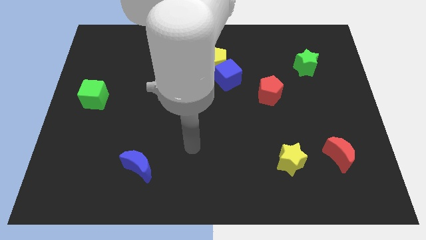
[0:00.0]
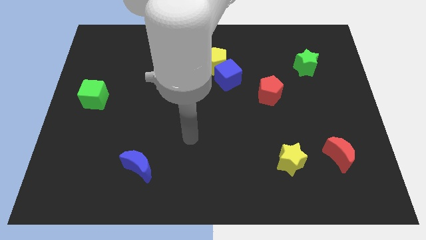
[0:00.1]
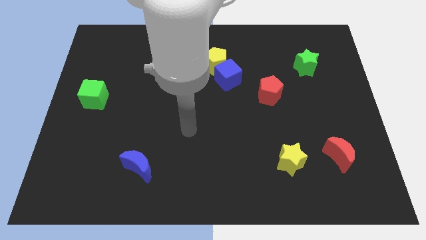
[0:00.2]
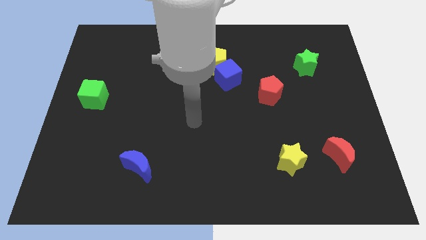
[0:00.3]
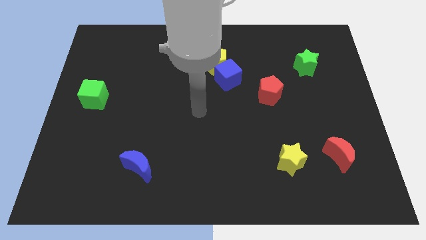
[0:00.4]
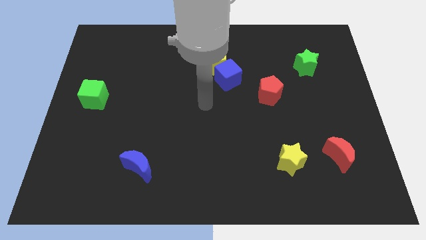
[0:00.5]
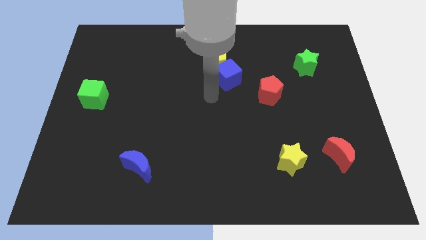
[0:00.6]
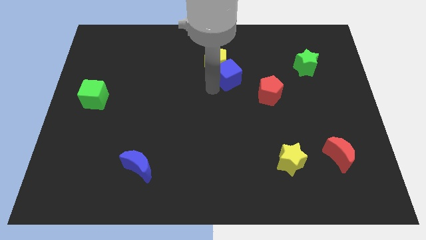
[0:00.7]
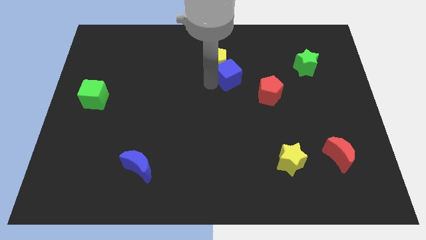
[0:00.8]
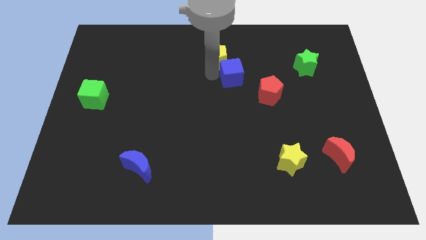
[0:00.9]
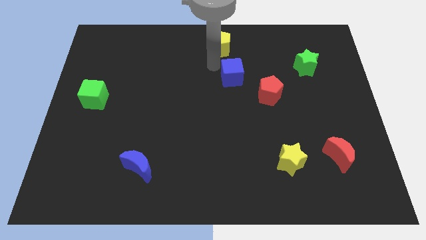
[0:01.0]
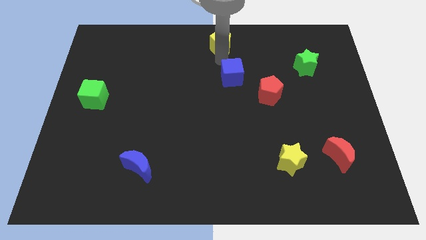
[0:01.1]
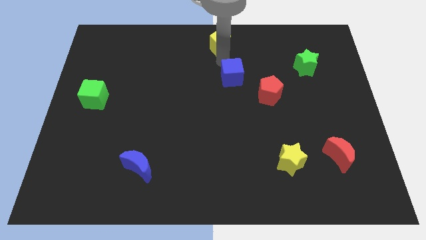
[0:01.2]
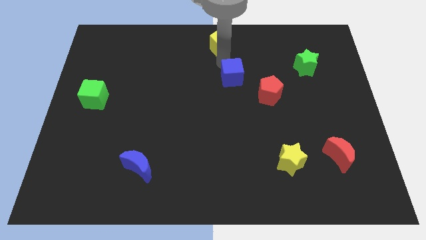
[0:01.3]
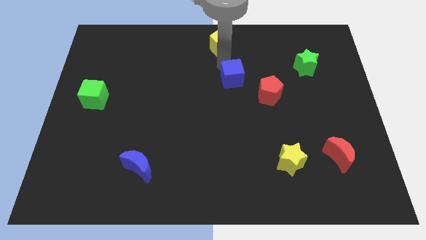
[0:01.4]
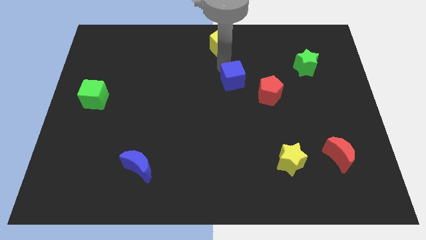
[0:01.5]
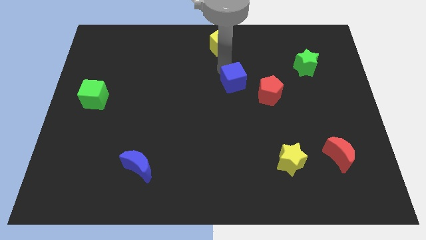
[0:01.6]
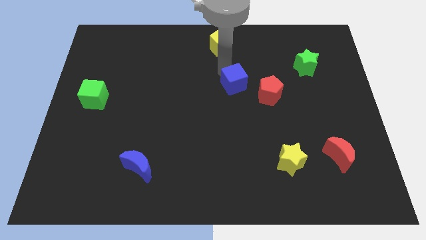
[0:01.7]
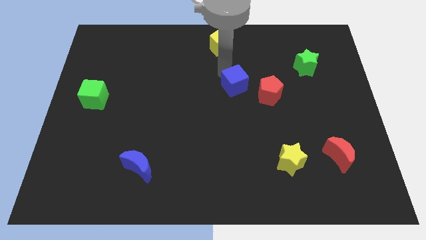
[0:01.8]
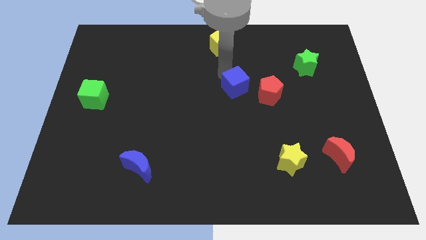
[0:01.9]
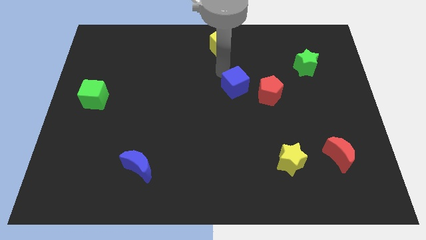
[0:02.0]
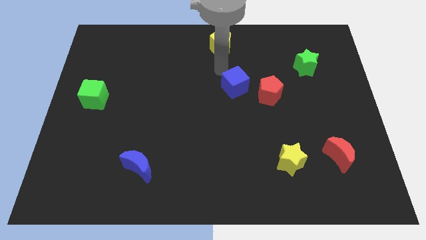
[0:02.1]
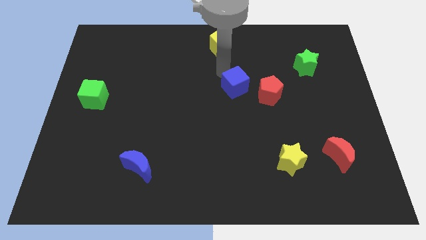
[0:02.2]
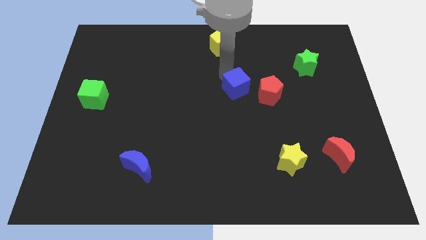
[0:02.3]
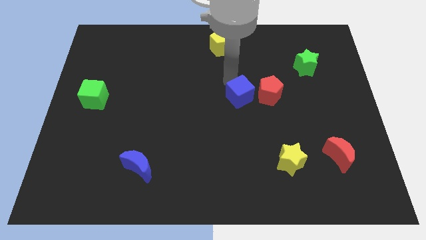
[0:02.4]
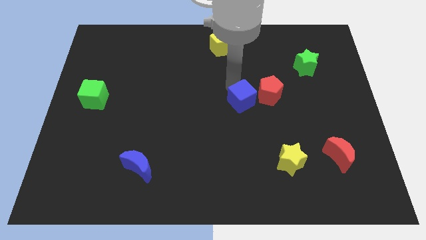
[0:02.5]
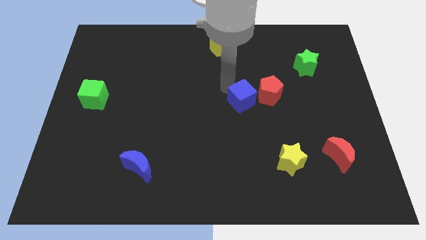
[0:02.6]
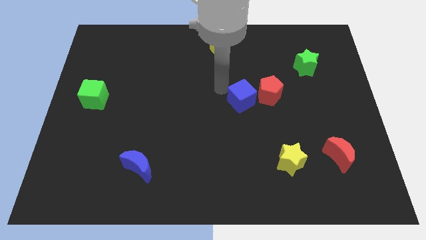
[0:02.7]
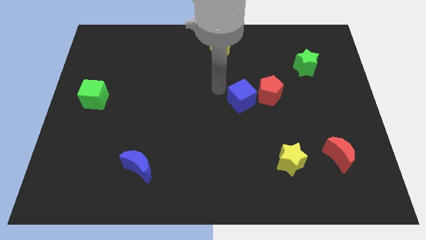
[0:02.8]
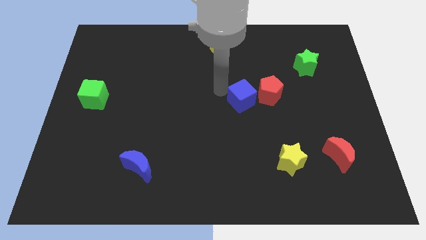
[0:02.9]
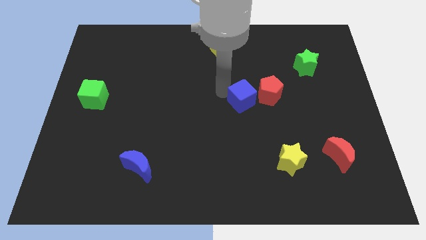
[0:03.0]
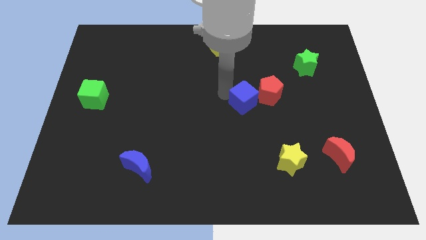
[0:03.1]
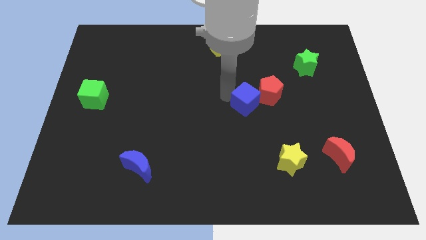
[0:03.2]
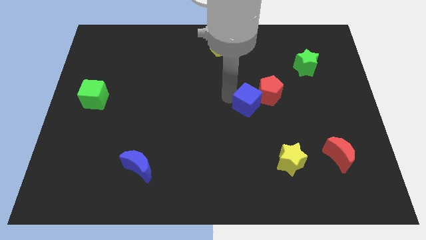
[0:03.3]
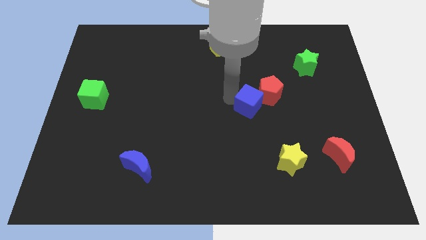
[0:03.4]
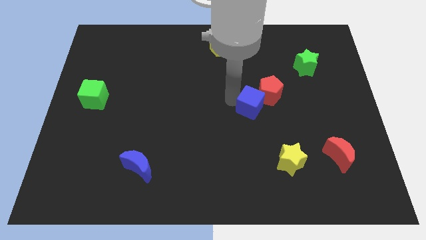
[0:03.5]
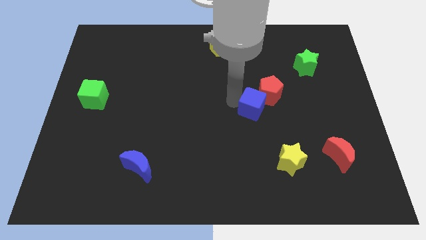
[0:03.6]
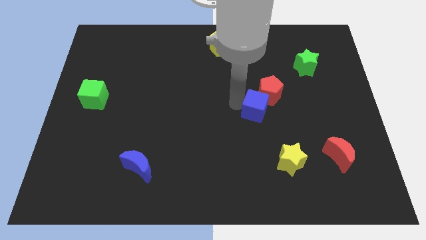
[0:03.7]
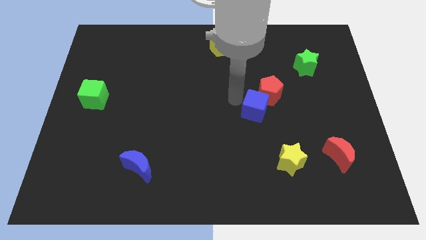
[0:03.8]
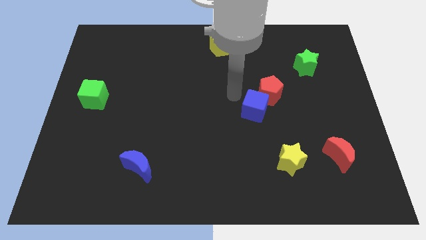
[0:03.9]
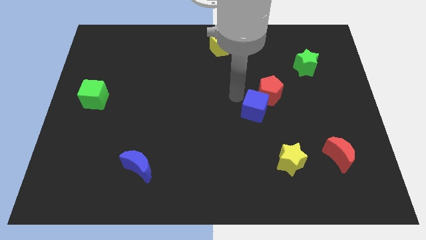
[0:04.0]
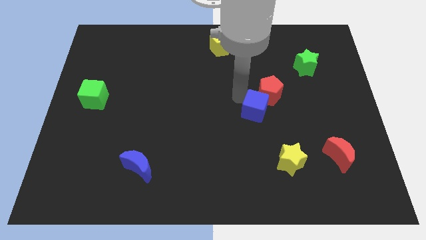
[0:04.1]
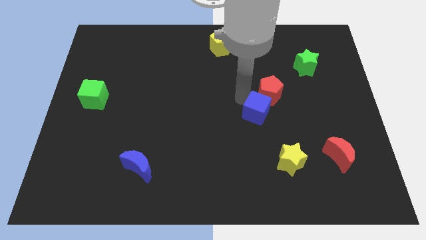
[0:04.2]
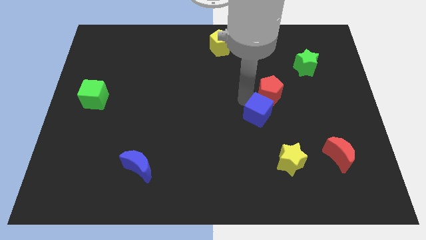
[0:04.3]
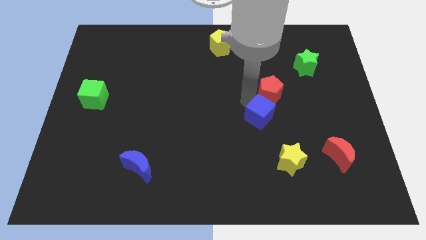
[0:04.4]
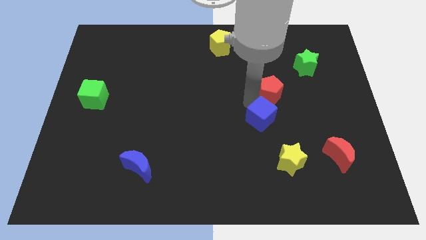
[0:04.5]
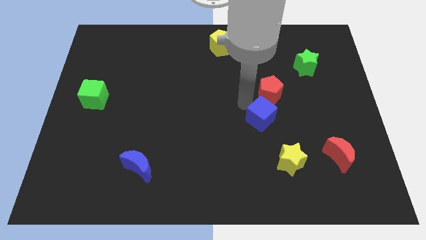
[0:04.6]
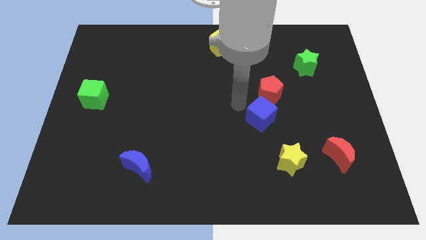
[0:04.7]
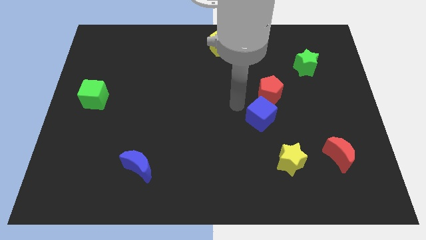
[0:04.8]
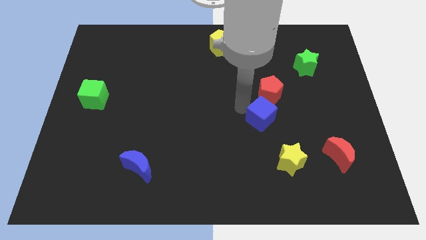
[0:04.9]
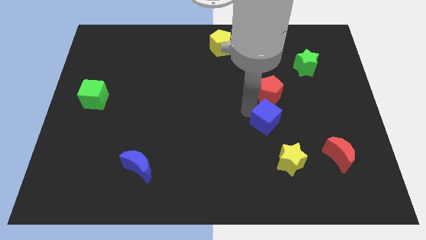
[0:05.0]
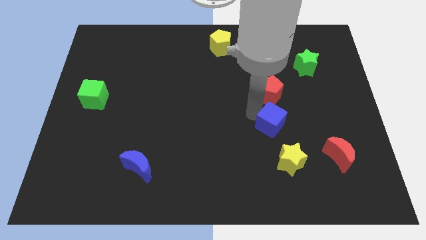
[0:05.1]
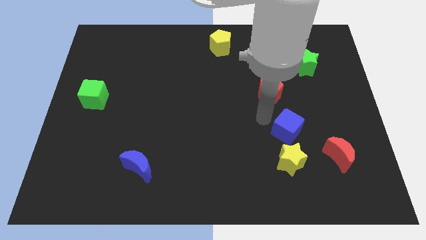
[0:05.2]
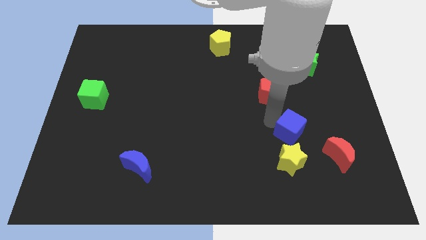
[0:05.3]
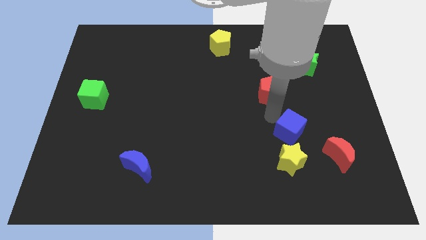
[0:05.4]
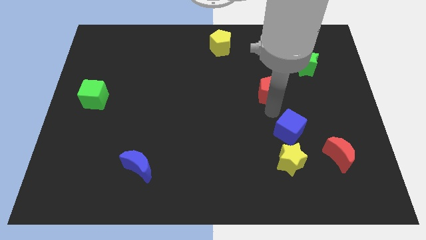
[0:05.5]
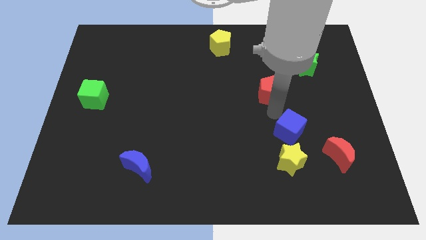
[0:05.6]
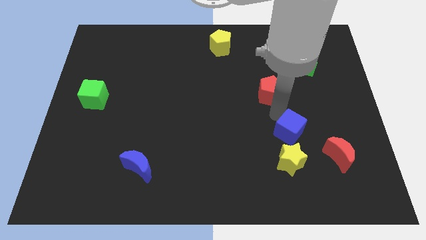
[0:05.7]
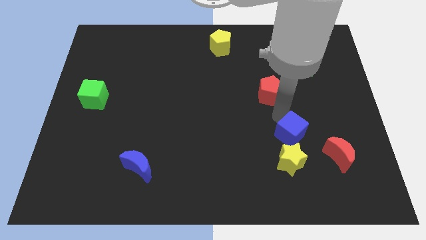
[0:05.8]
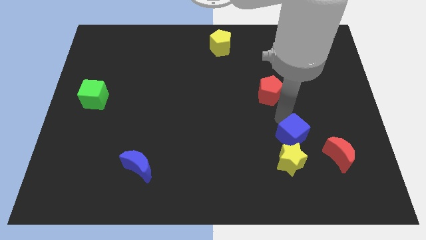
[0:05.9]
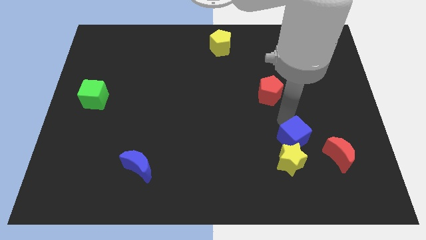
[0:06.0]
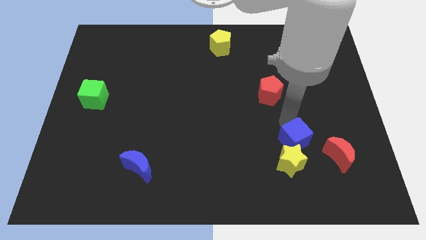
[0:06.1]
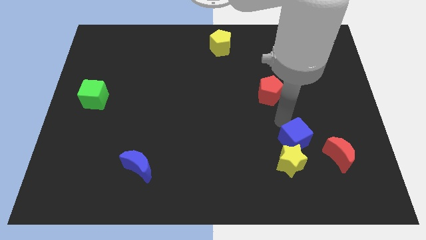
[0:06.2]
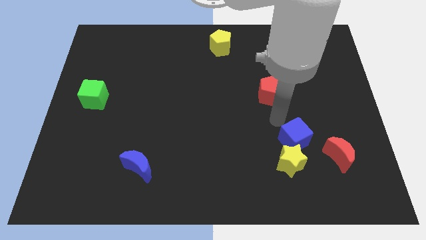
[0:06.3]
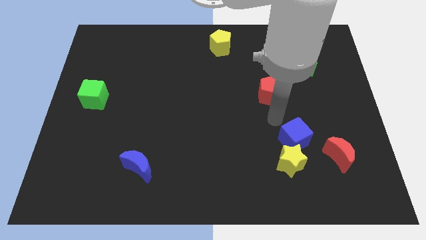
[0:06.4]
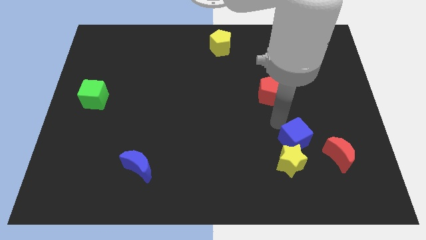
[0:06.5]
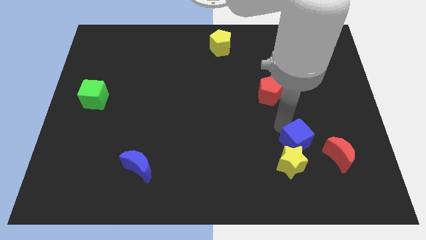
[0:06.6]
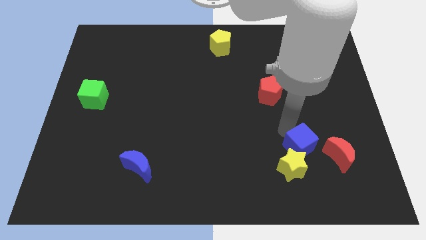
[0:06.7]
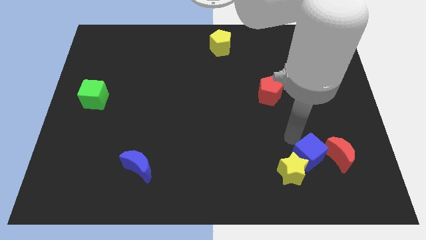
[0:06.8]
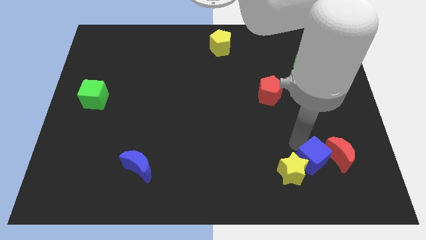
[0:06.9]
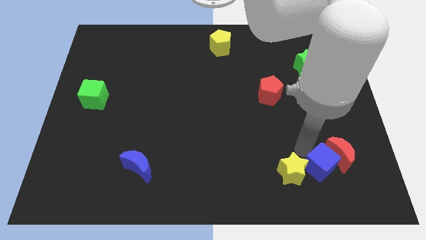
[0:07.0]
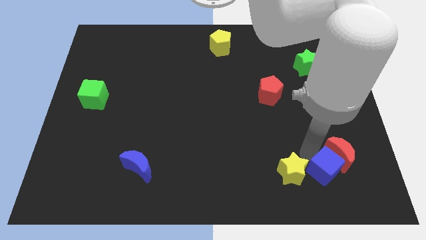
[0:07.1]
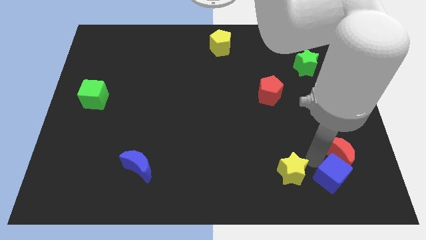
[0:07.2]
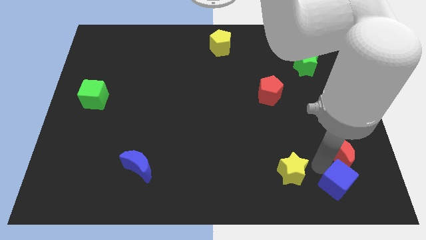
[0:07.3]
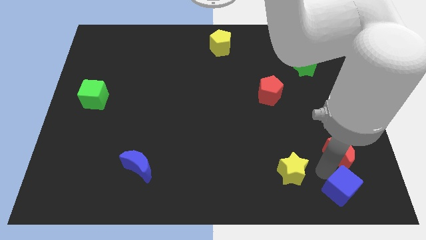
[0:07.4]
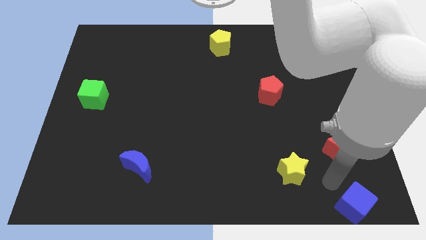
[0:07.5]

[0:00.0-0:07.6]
slide the blue cube to the lower right corner
